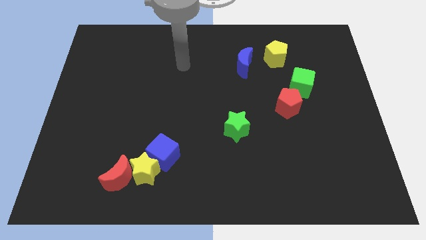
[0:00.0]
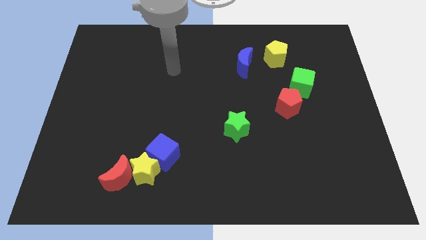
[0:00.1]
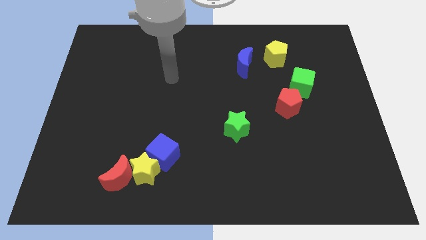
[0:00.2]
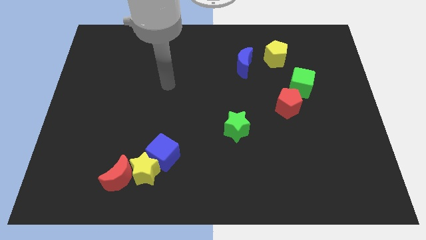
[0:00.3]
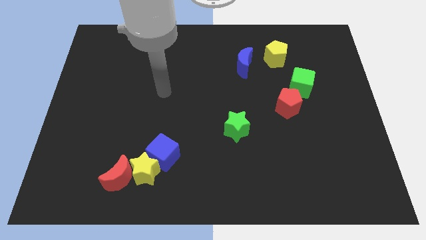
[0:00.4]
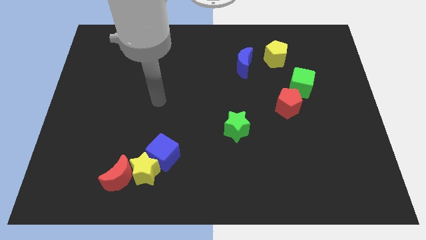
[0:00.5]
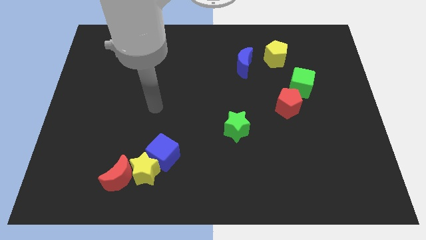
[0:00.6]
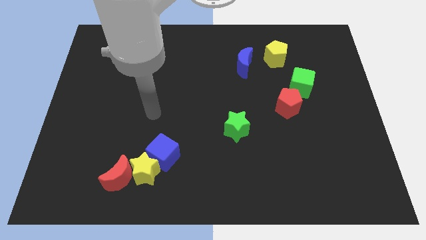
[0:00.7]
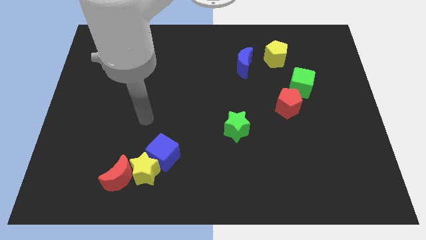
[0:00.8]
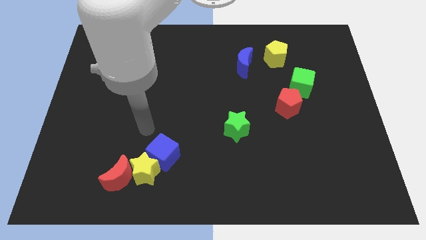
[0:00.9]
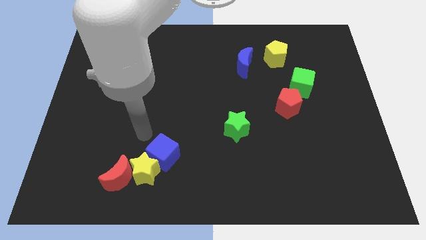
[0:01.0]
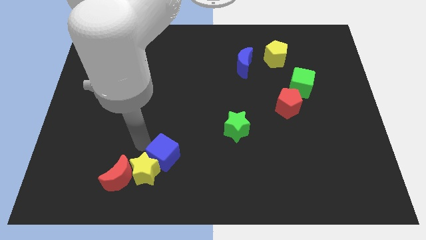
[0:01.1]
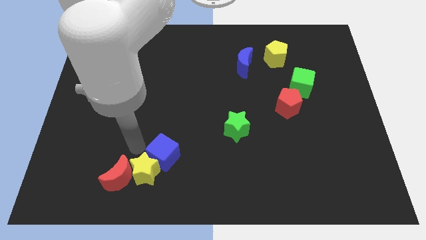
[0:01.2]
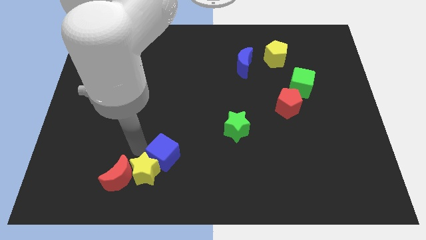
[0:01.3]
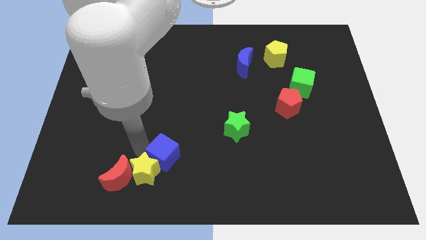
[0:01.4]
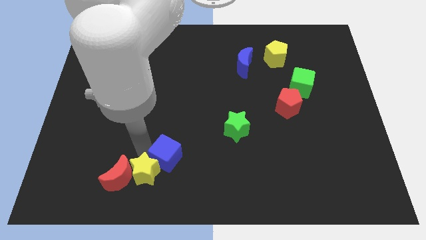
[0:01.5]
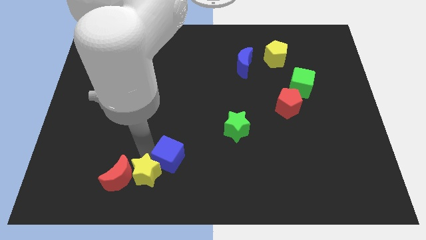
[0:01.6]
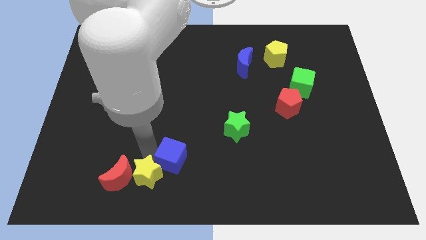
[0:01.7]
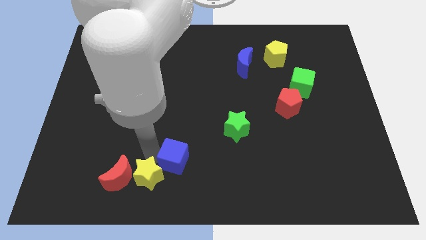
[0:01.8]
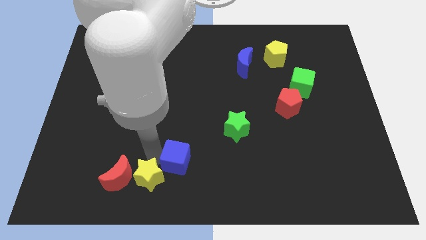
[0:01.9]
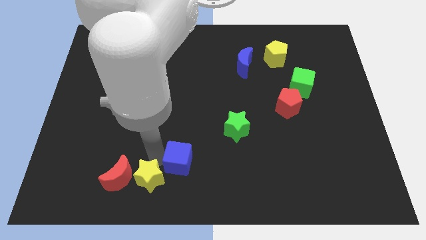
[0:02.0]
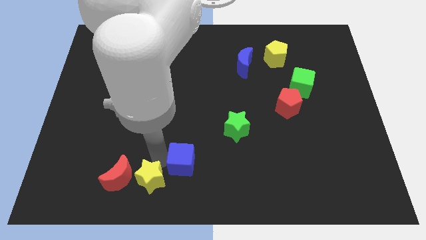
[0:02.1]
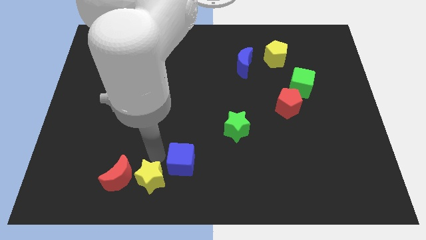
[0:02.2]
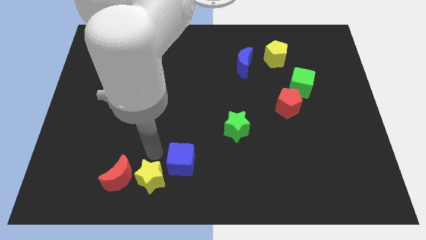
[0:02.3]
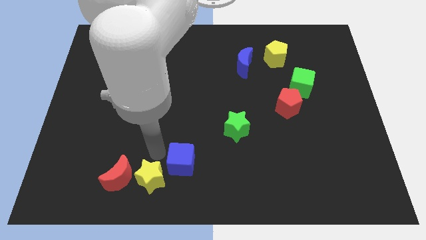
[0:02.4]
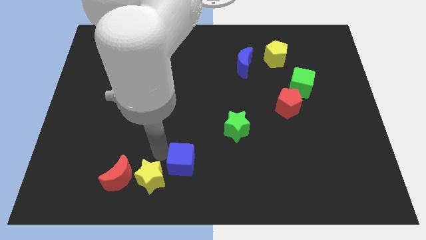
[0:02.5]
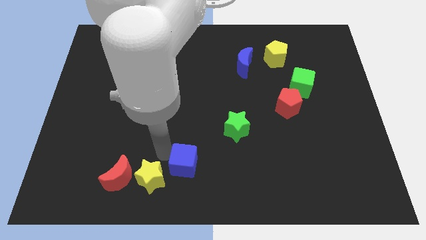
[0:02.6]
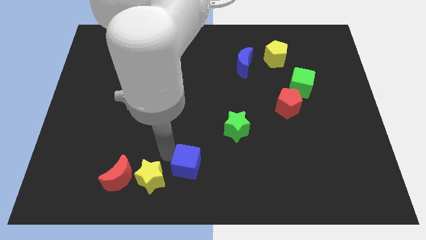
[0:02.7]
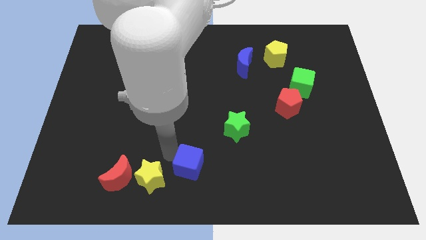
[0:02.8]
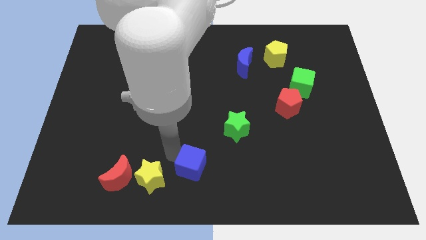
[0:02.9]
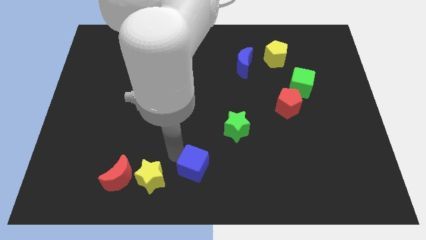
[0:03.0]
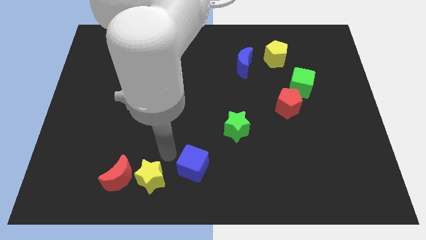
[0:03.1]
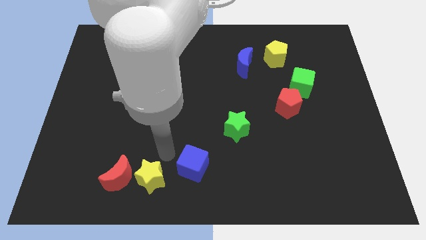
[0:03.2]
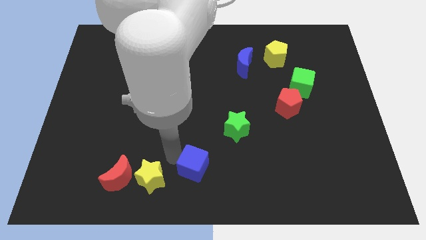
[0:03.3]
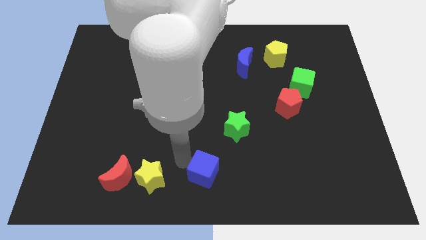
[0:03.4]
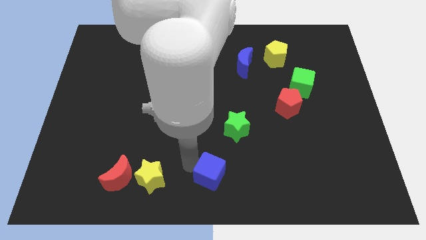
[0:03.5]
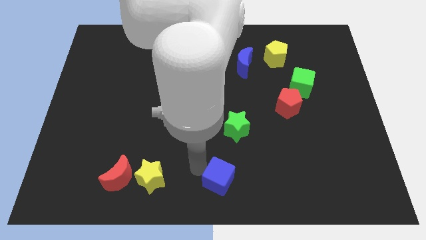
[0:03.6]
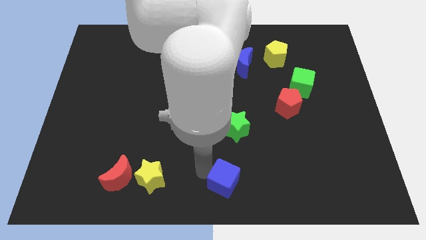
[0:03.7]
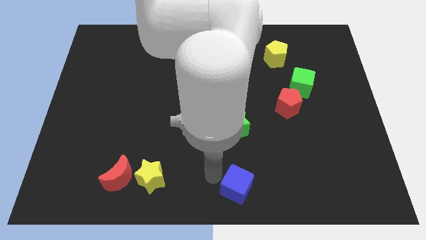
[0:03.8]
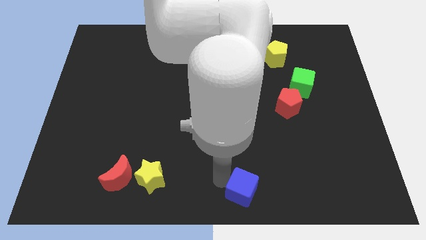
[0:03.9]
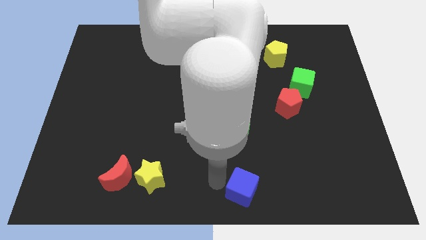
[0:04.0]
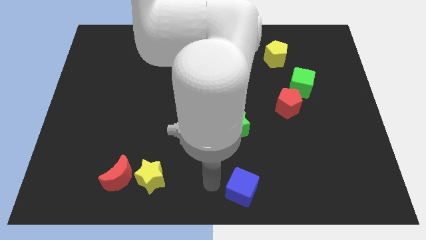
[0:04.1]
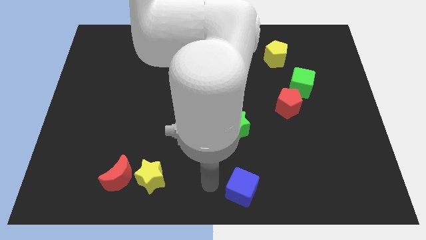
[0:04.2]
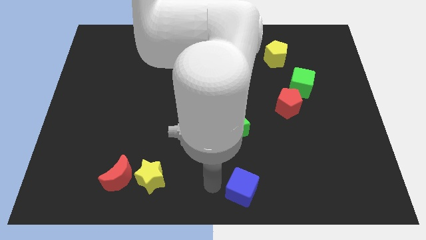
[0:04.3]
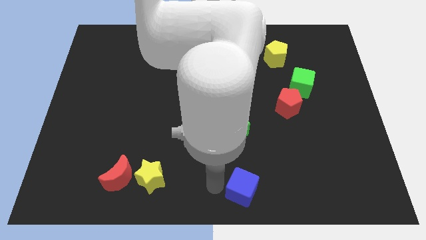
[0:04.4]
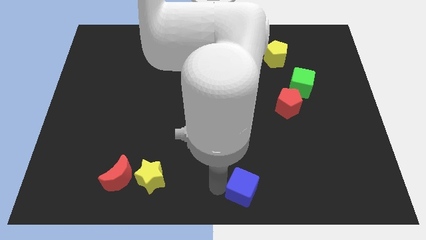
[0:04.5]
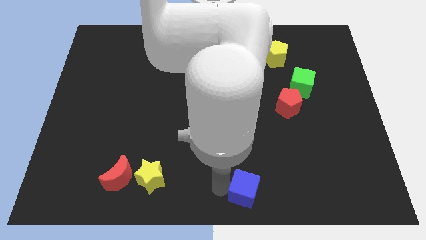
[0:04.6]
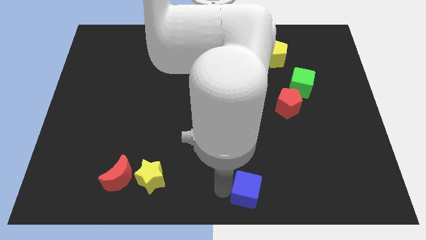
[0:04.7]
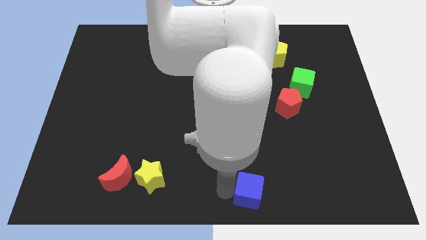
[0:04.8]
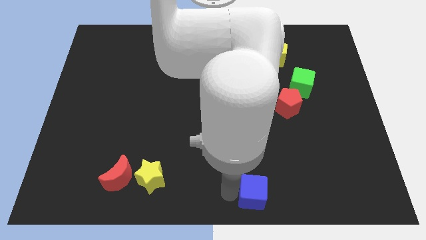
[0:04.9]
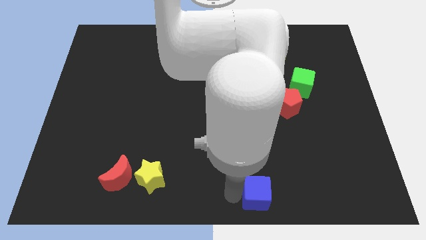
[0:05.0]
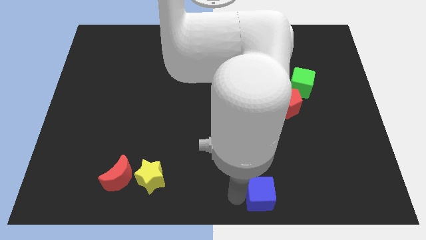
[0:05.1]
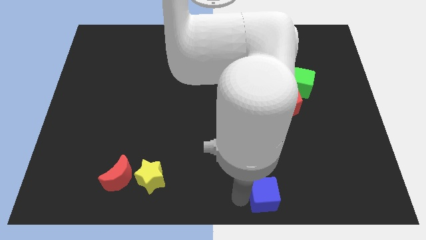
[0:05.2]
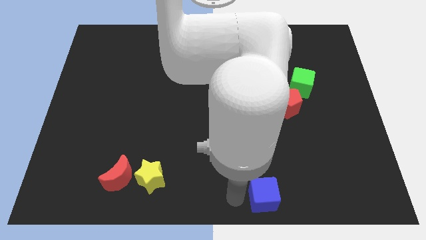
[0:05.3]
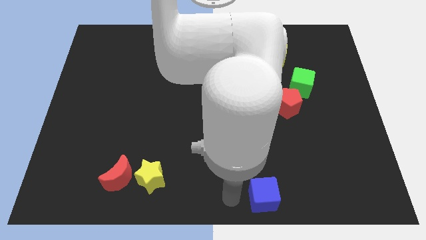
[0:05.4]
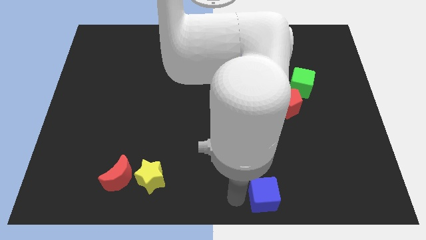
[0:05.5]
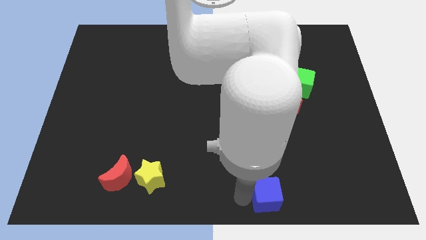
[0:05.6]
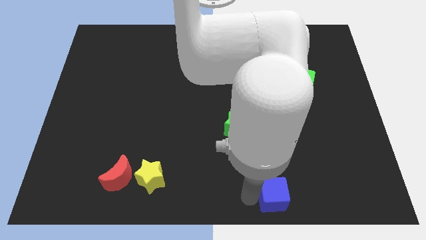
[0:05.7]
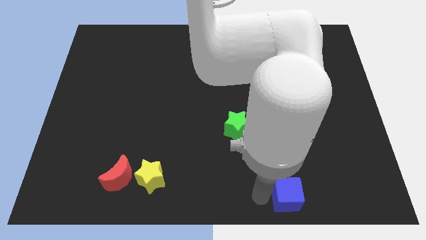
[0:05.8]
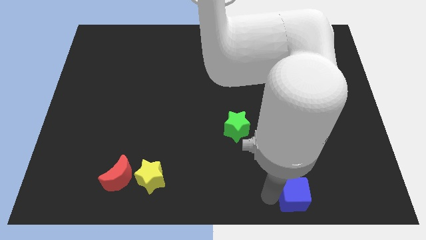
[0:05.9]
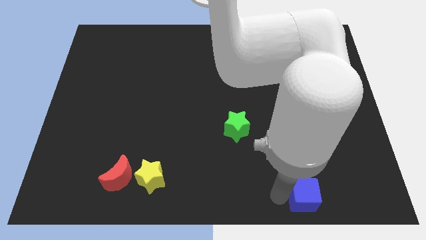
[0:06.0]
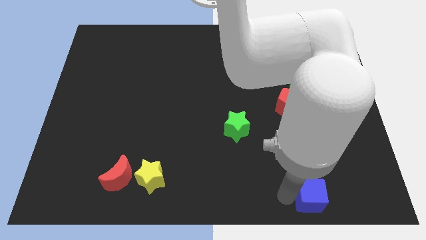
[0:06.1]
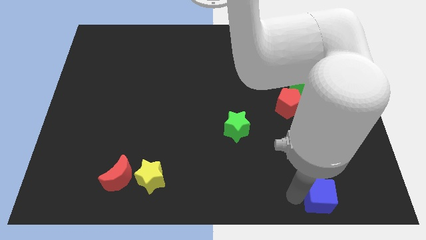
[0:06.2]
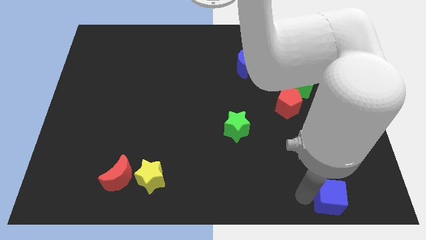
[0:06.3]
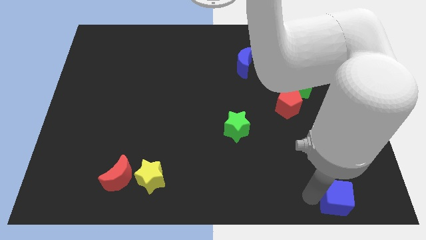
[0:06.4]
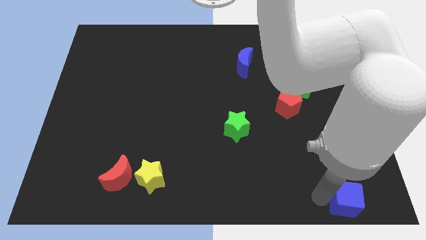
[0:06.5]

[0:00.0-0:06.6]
slide the blue cube to the lower right corner

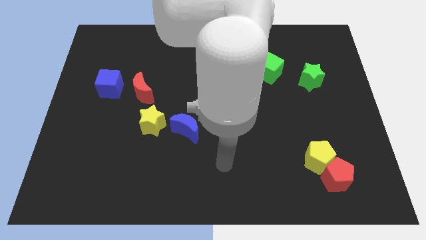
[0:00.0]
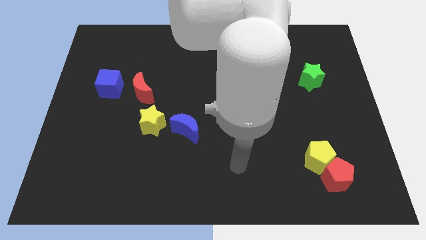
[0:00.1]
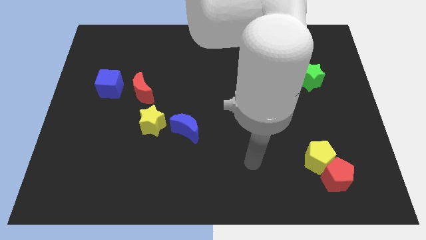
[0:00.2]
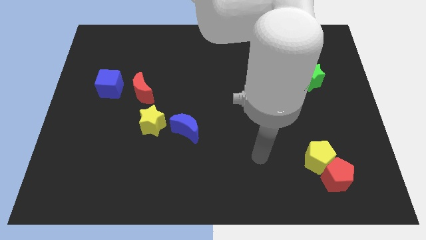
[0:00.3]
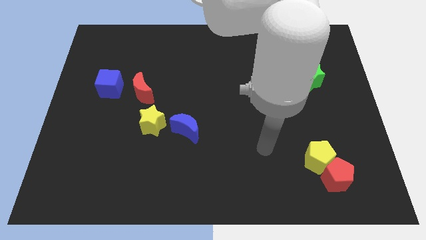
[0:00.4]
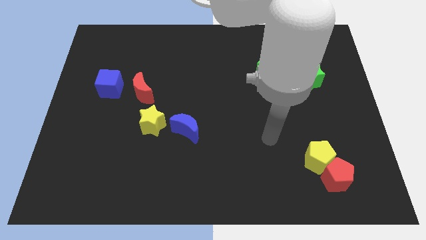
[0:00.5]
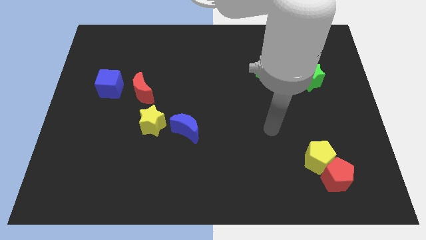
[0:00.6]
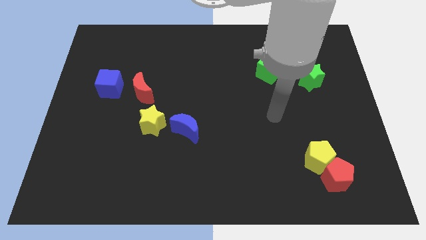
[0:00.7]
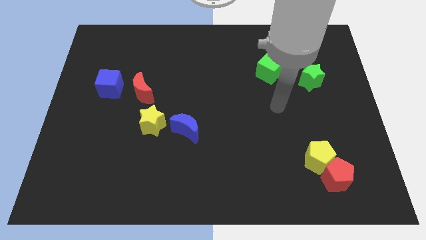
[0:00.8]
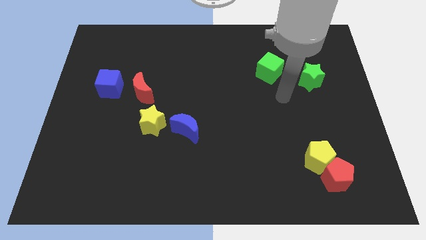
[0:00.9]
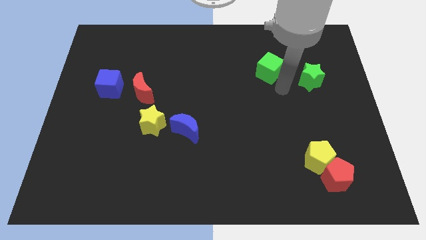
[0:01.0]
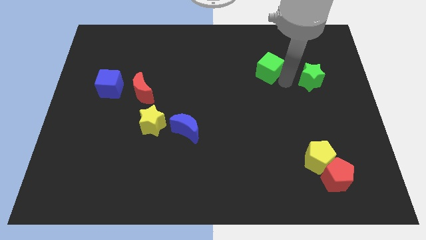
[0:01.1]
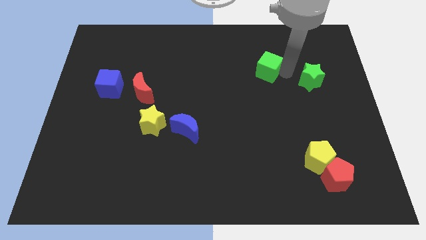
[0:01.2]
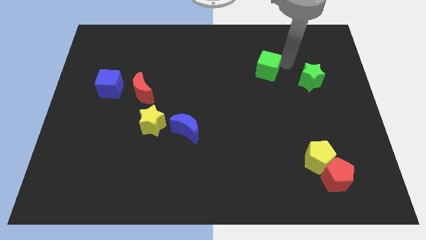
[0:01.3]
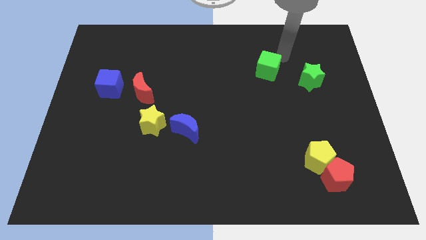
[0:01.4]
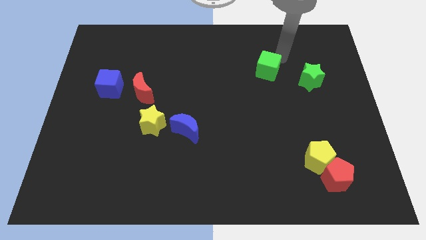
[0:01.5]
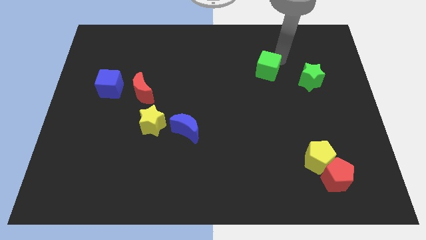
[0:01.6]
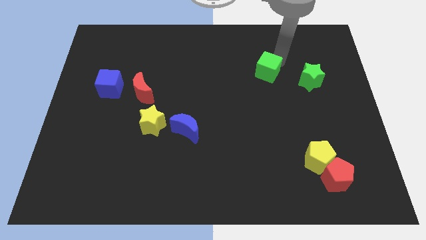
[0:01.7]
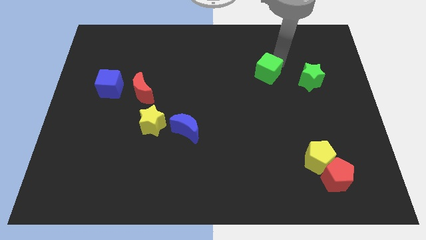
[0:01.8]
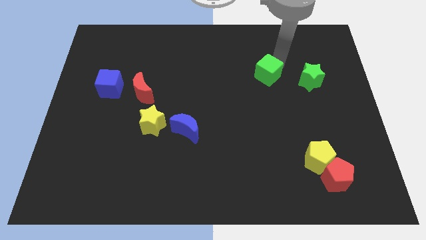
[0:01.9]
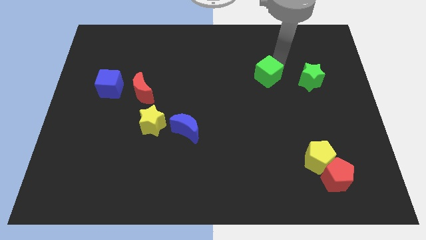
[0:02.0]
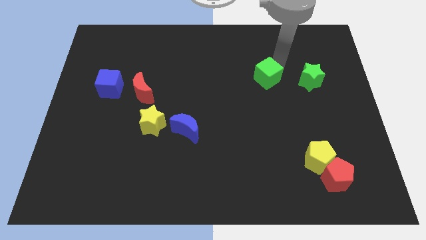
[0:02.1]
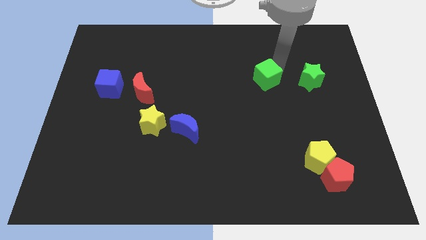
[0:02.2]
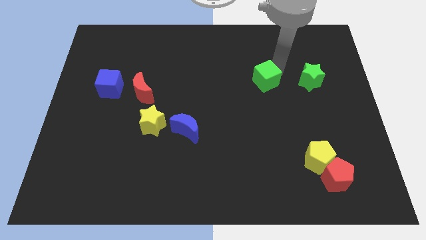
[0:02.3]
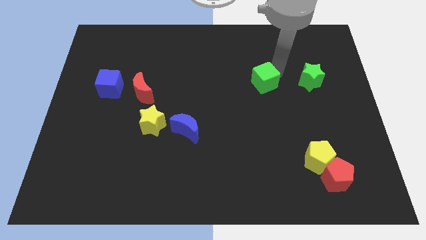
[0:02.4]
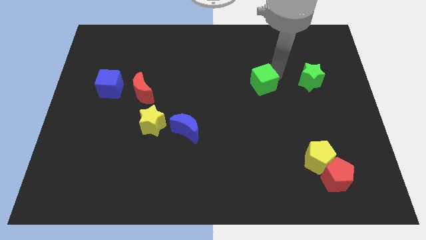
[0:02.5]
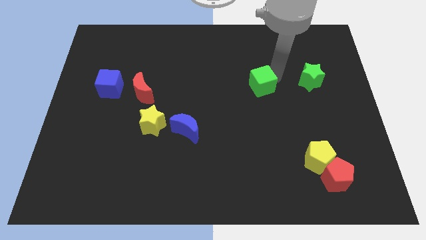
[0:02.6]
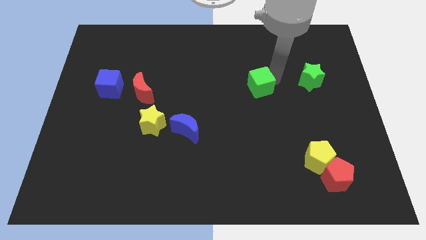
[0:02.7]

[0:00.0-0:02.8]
push the green cube to the center
